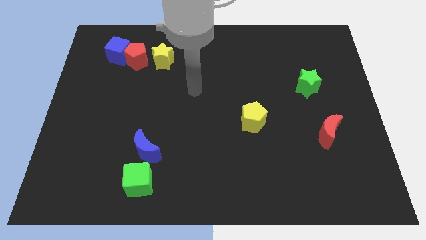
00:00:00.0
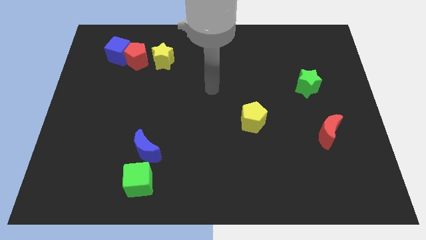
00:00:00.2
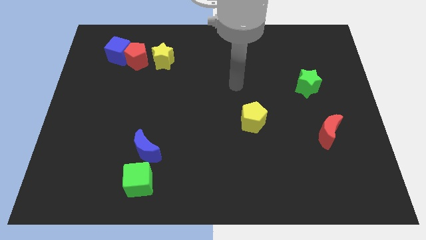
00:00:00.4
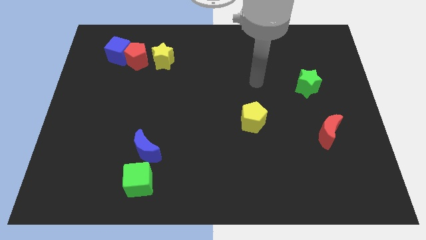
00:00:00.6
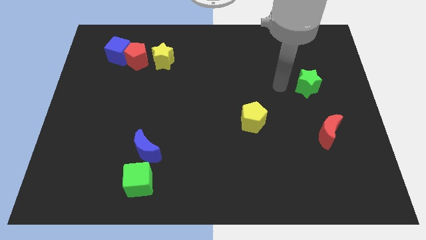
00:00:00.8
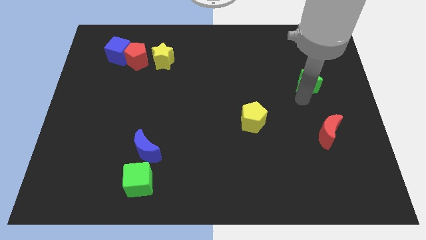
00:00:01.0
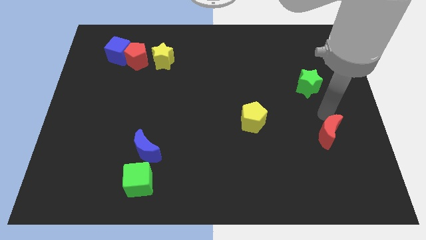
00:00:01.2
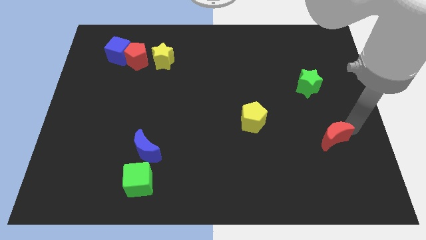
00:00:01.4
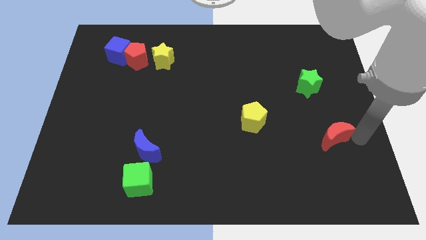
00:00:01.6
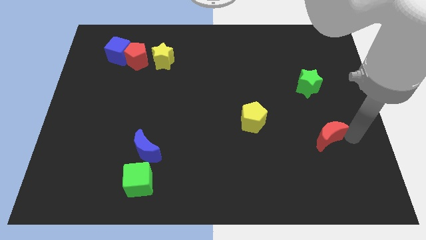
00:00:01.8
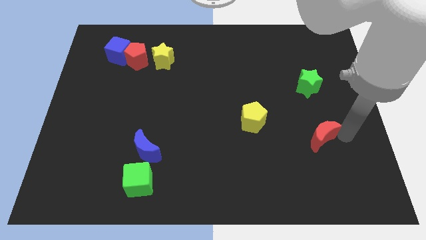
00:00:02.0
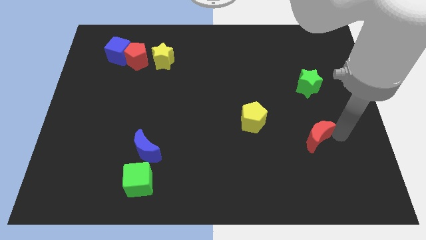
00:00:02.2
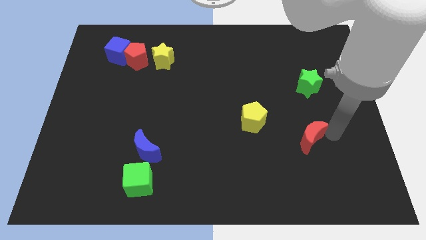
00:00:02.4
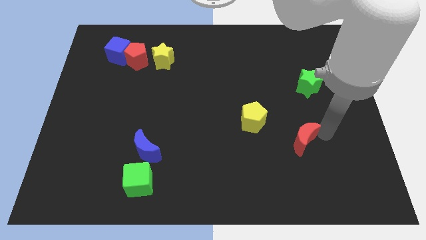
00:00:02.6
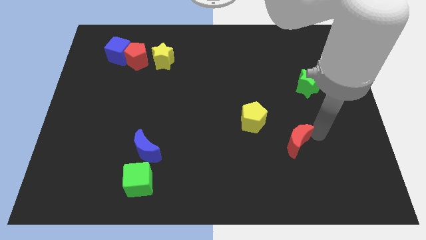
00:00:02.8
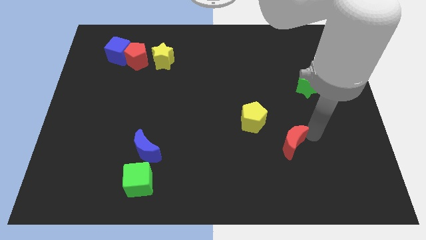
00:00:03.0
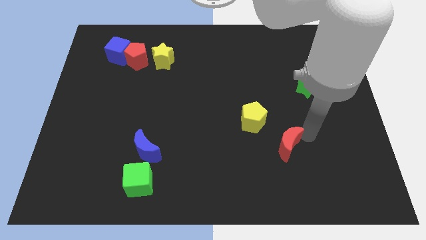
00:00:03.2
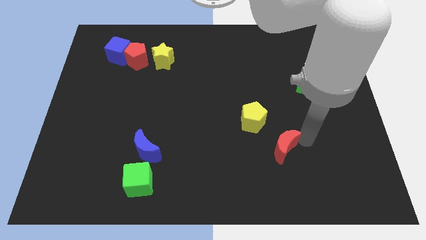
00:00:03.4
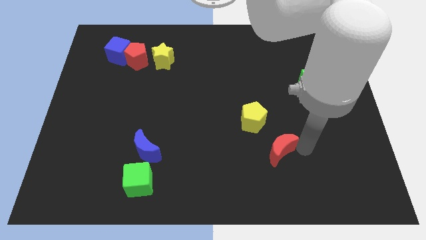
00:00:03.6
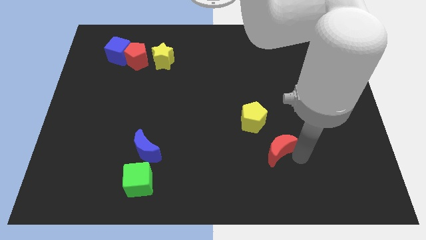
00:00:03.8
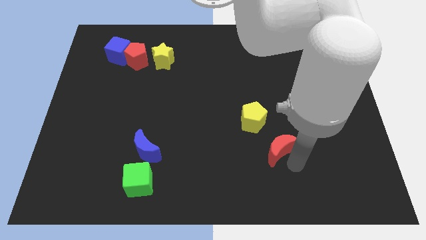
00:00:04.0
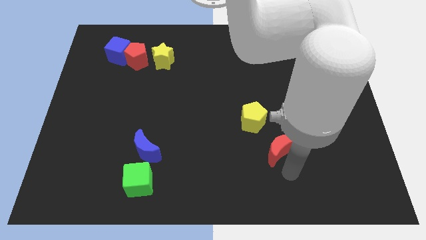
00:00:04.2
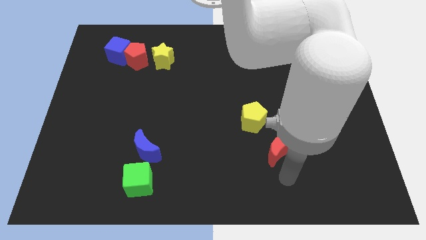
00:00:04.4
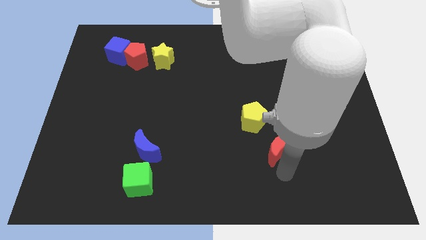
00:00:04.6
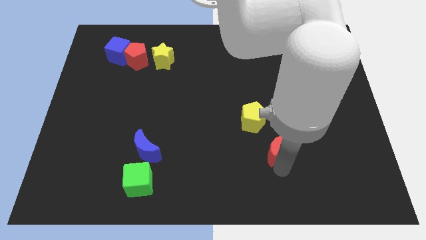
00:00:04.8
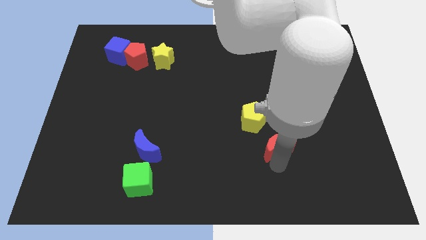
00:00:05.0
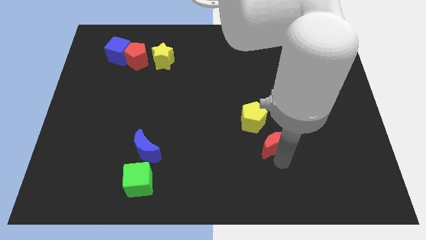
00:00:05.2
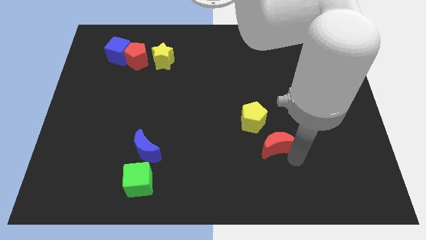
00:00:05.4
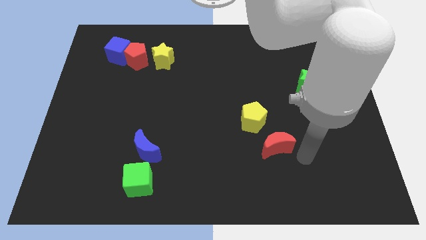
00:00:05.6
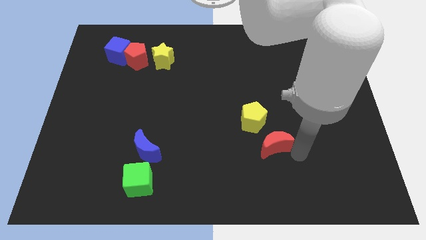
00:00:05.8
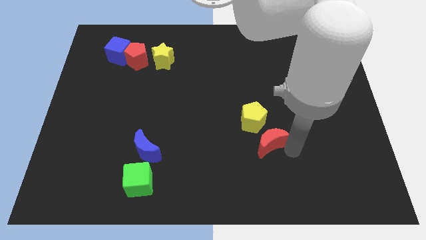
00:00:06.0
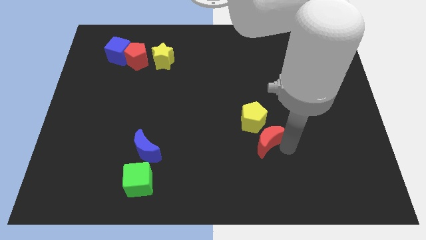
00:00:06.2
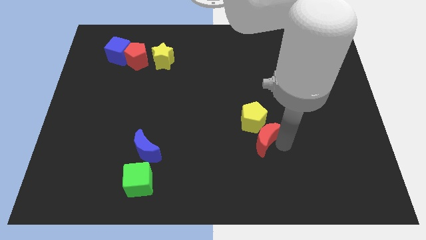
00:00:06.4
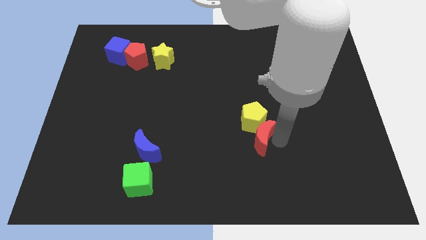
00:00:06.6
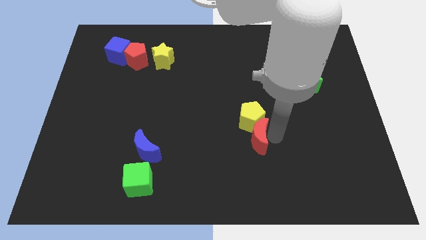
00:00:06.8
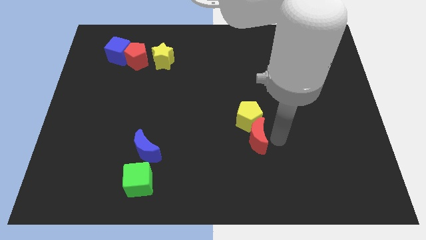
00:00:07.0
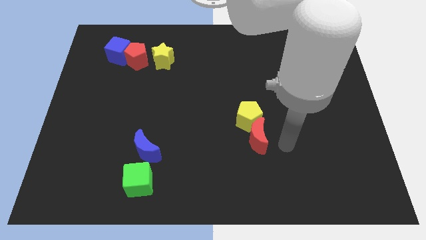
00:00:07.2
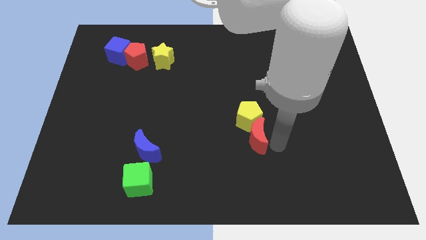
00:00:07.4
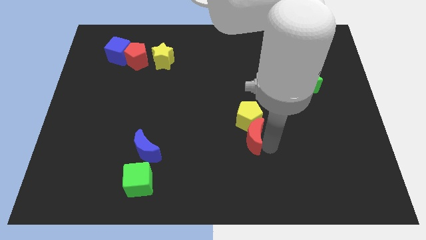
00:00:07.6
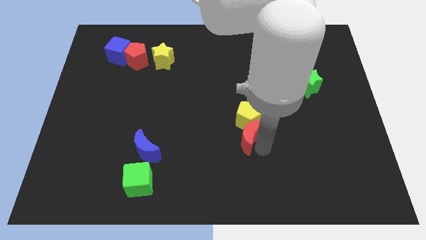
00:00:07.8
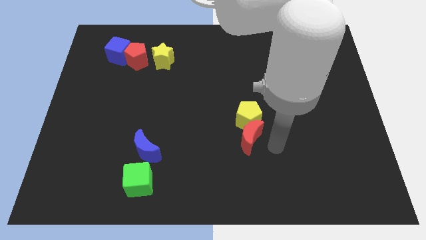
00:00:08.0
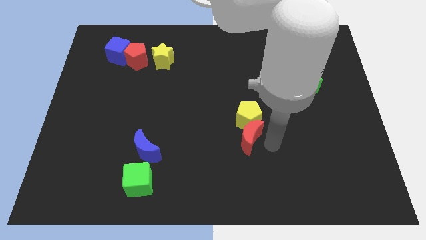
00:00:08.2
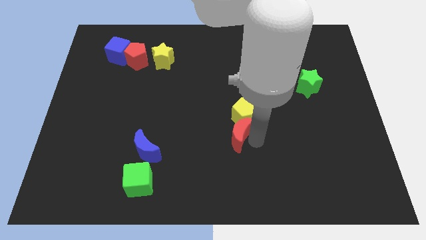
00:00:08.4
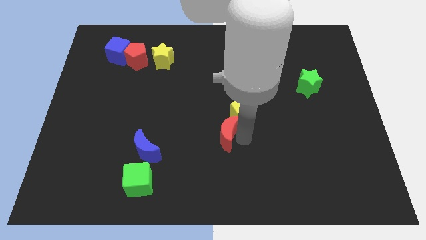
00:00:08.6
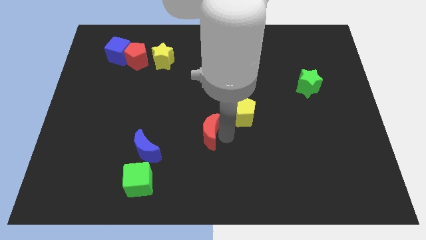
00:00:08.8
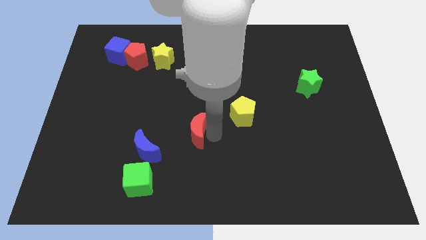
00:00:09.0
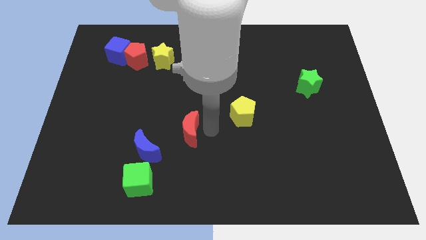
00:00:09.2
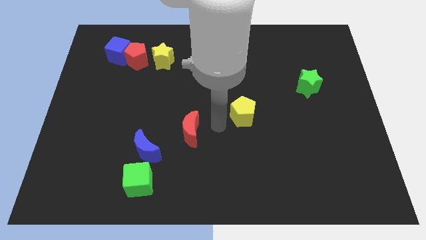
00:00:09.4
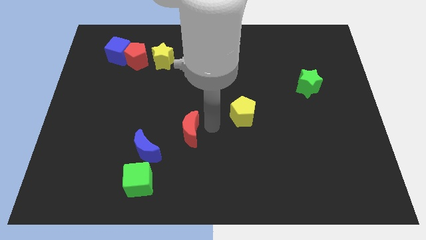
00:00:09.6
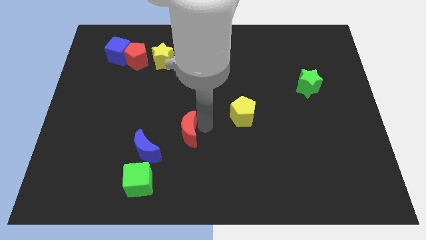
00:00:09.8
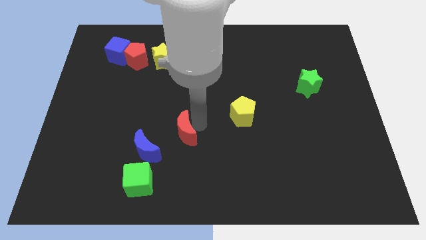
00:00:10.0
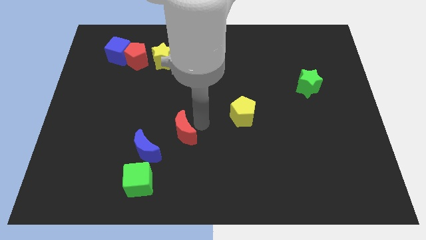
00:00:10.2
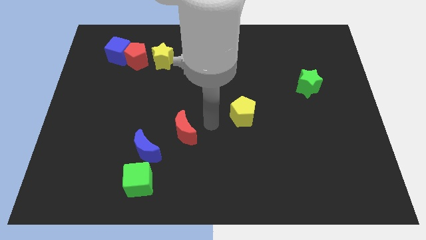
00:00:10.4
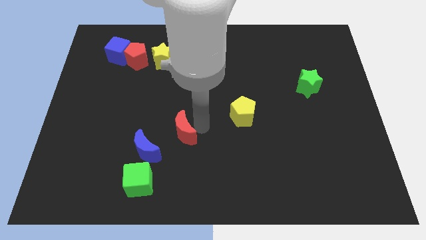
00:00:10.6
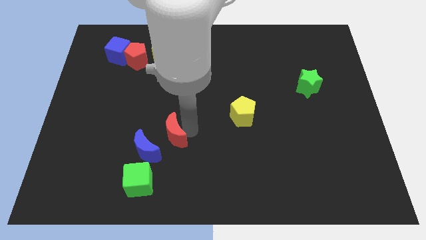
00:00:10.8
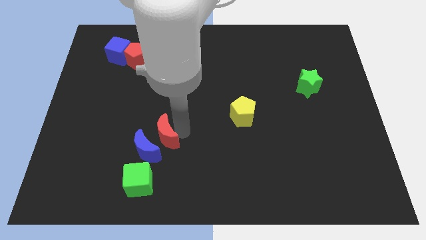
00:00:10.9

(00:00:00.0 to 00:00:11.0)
push the red moon close to the blue moon

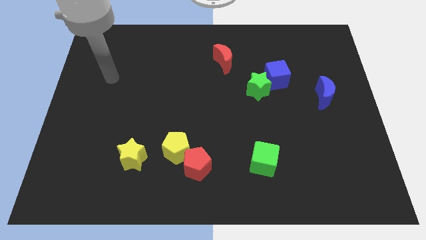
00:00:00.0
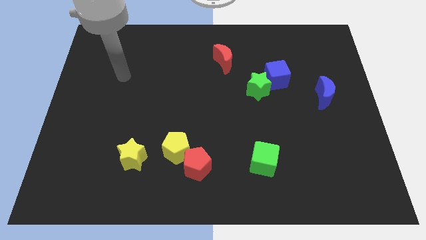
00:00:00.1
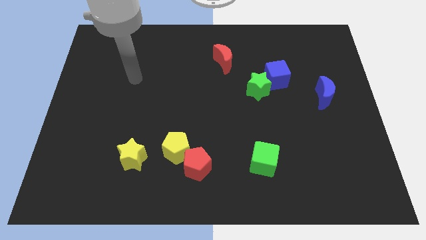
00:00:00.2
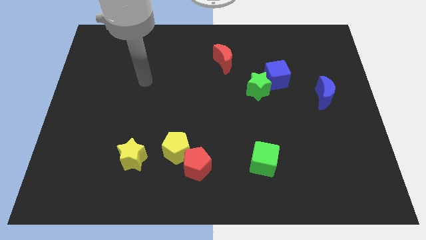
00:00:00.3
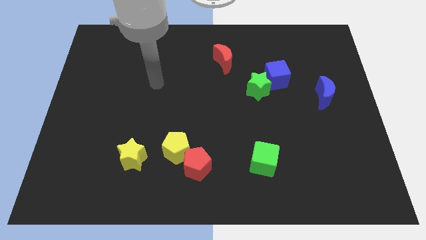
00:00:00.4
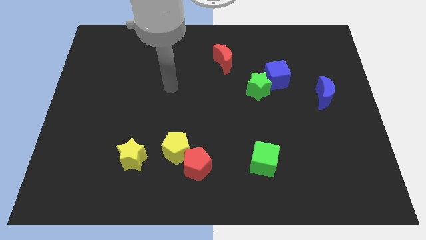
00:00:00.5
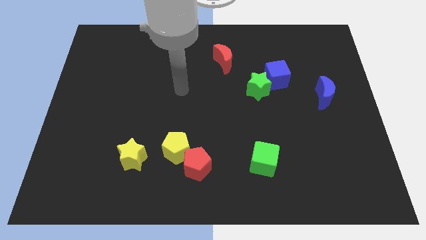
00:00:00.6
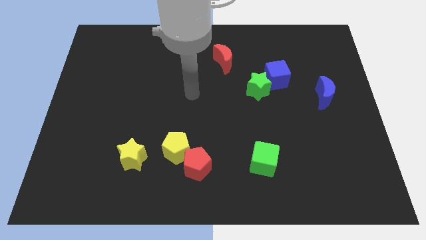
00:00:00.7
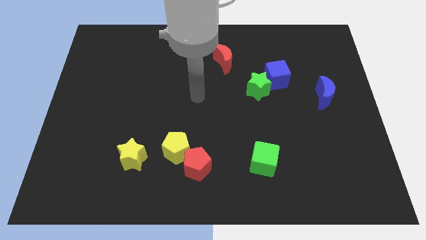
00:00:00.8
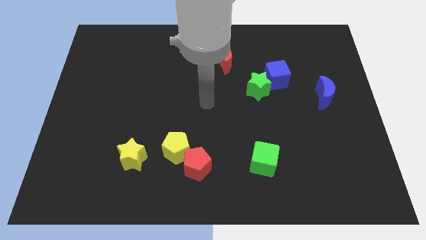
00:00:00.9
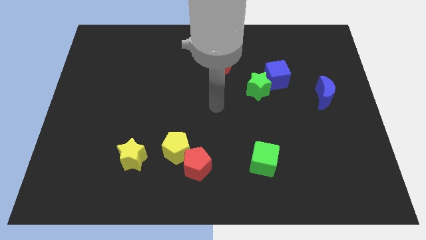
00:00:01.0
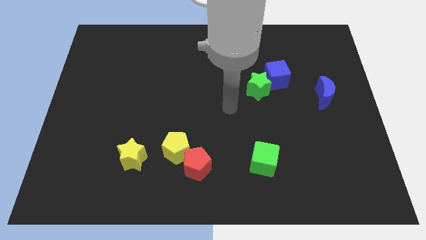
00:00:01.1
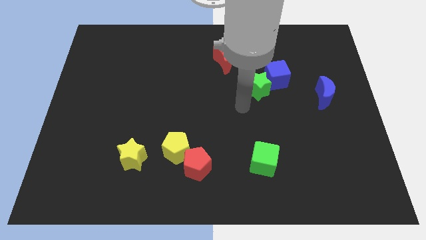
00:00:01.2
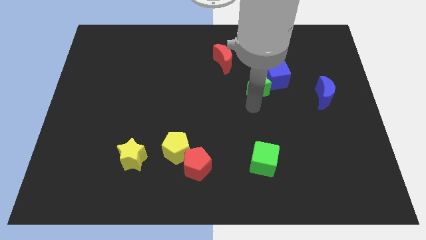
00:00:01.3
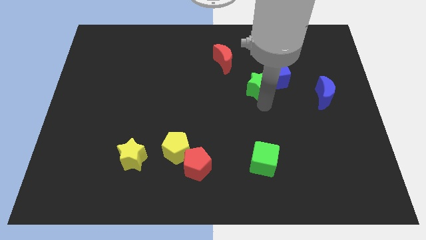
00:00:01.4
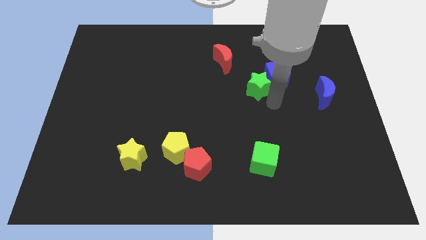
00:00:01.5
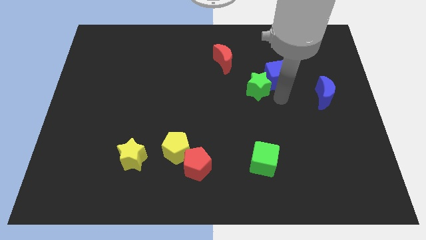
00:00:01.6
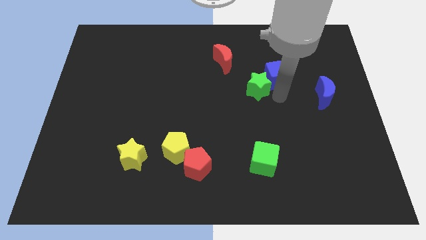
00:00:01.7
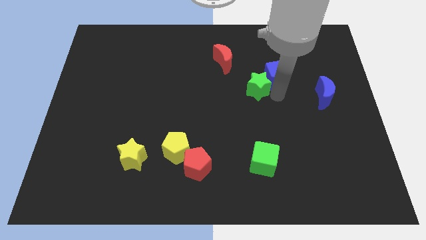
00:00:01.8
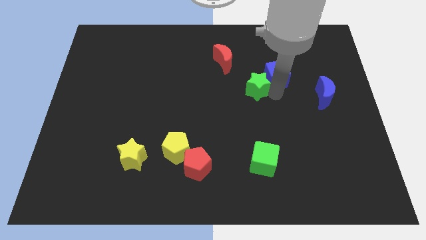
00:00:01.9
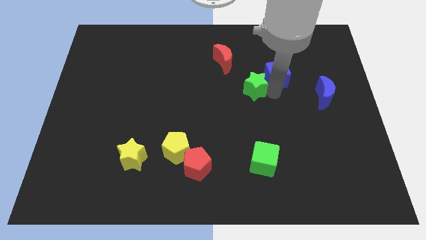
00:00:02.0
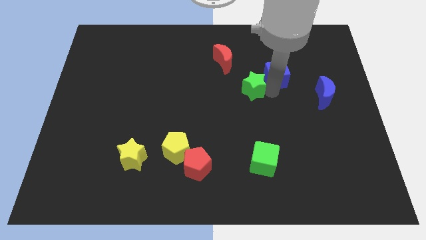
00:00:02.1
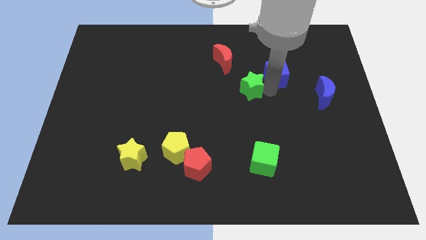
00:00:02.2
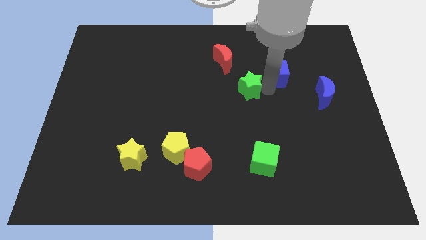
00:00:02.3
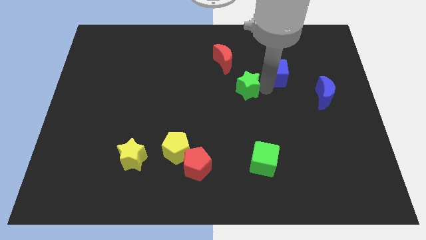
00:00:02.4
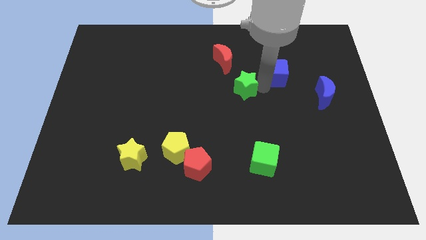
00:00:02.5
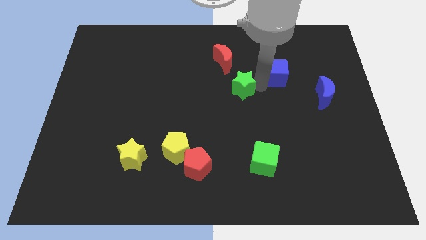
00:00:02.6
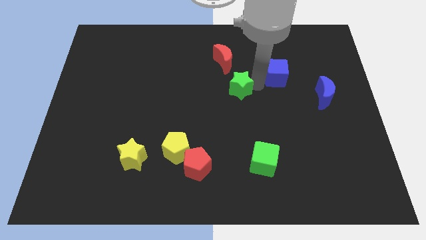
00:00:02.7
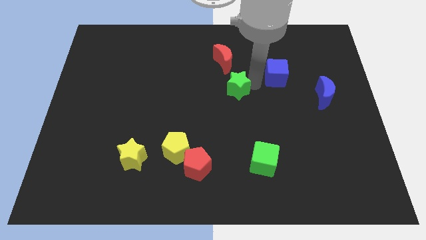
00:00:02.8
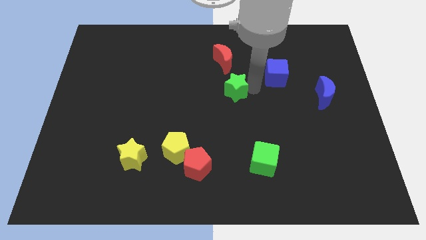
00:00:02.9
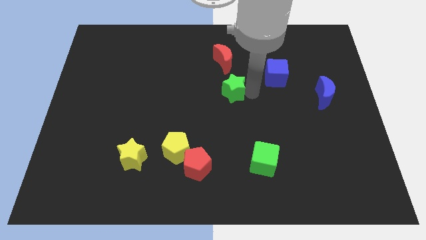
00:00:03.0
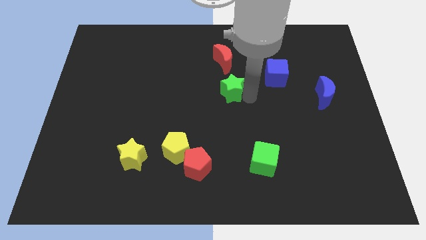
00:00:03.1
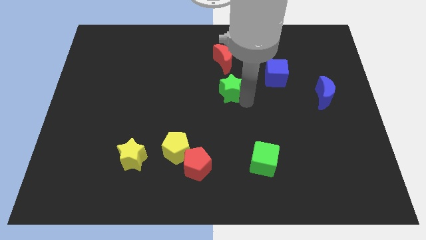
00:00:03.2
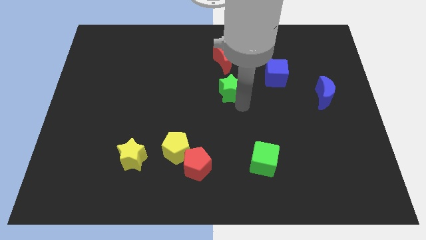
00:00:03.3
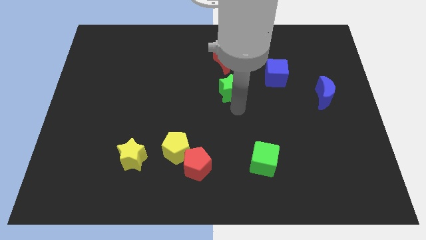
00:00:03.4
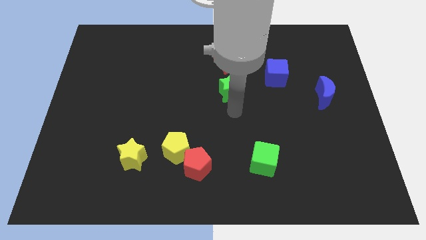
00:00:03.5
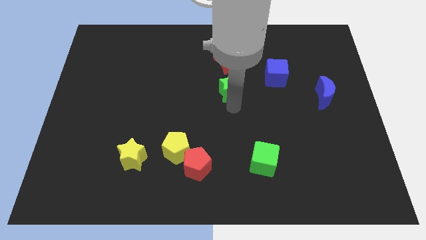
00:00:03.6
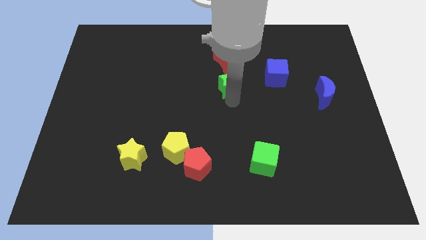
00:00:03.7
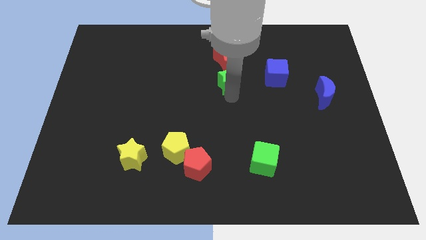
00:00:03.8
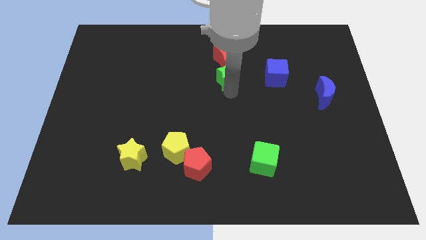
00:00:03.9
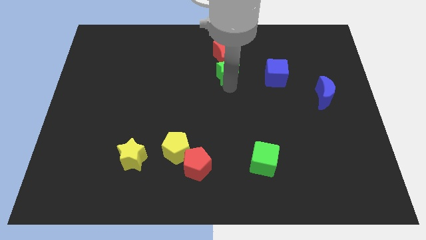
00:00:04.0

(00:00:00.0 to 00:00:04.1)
slide the green star to the red moon
